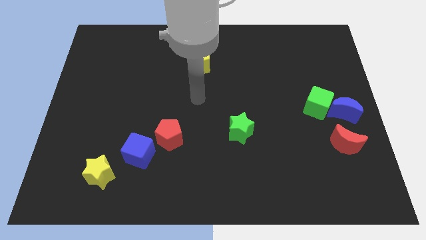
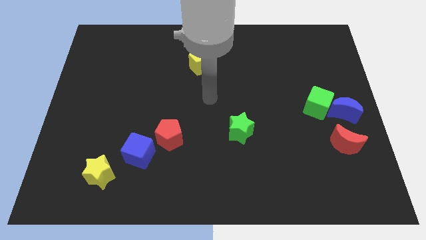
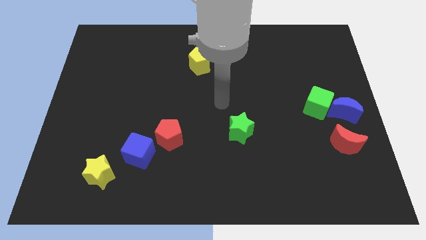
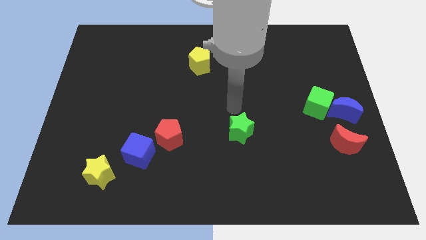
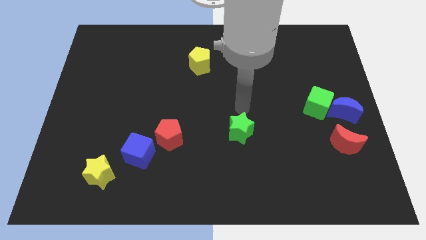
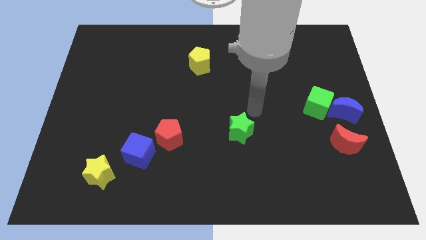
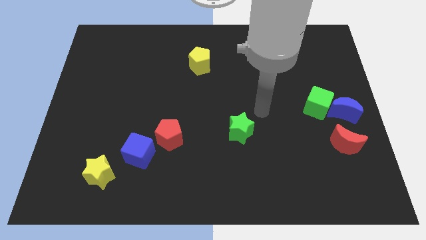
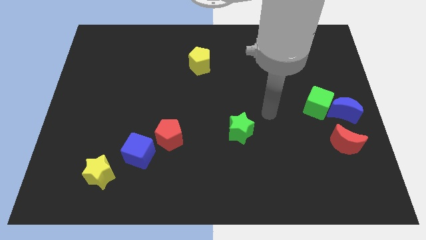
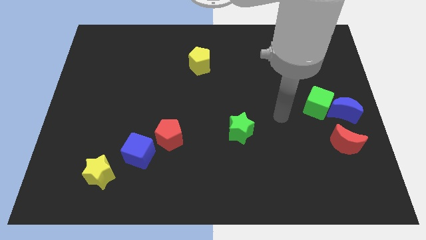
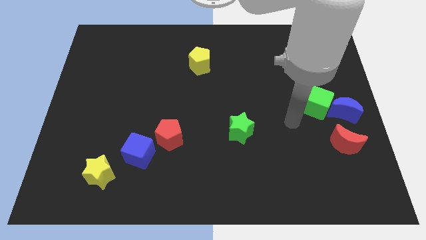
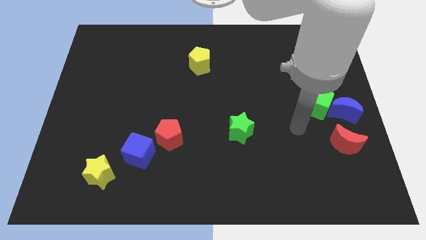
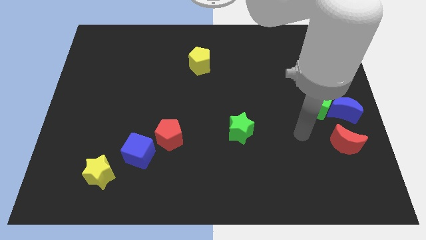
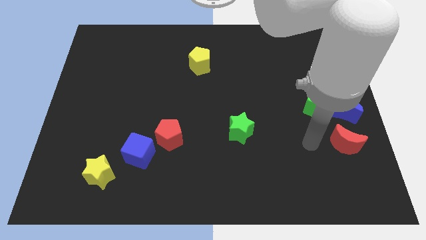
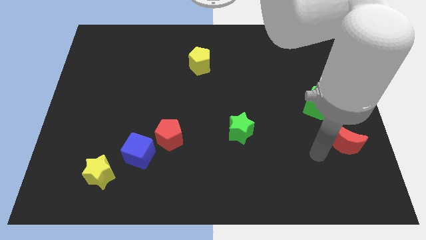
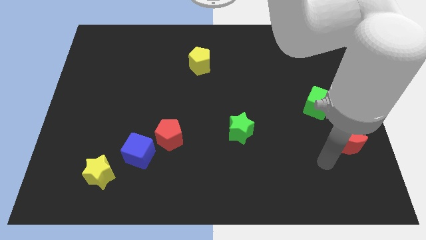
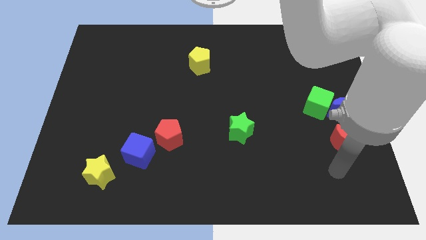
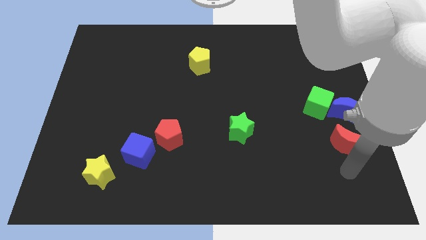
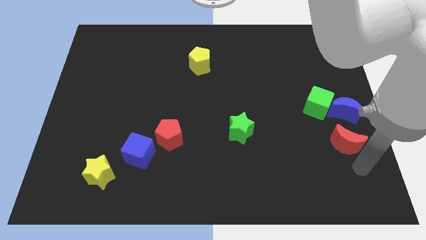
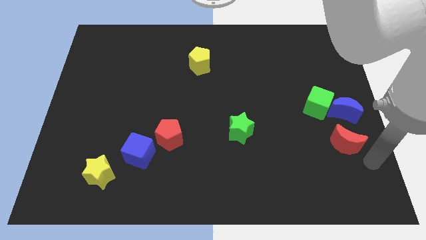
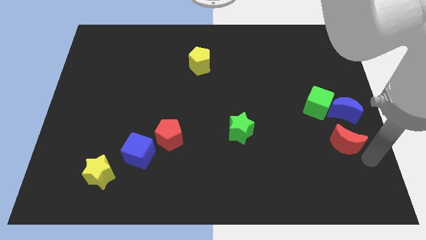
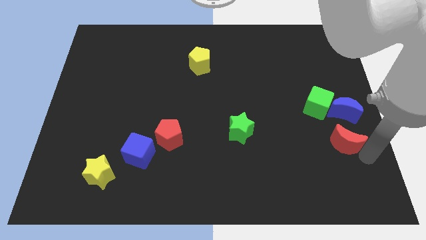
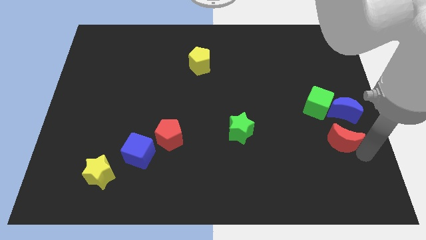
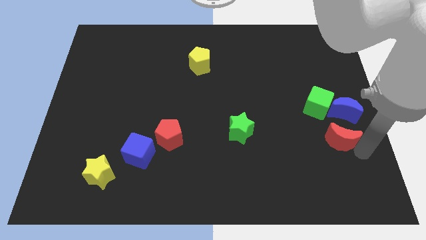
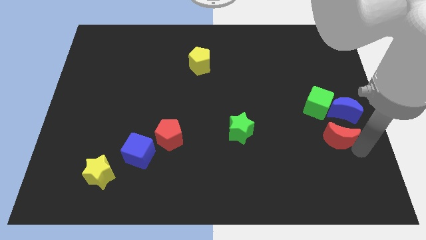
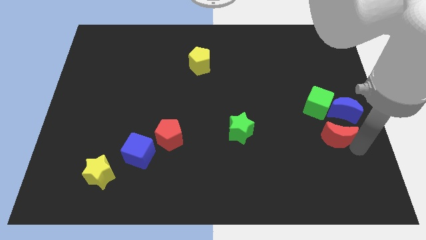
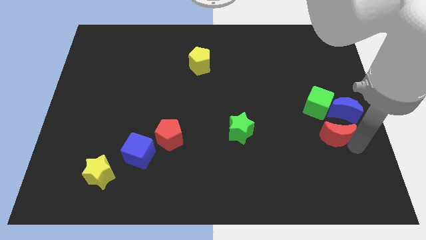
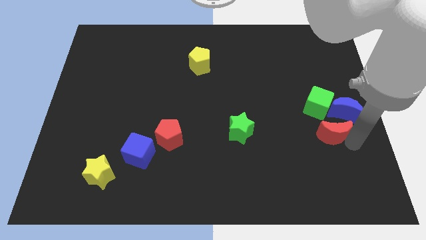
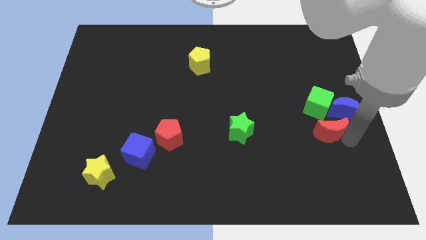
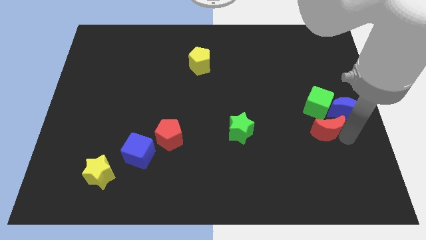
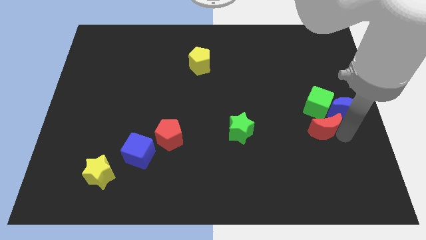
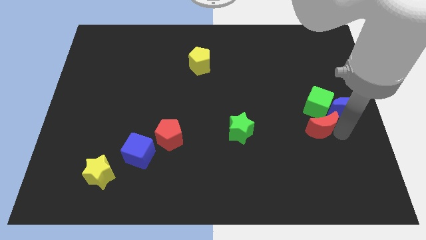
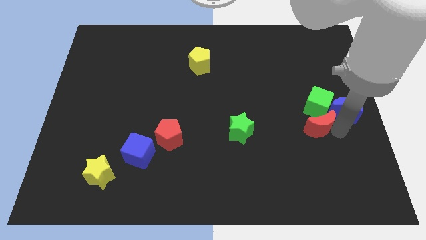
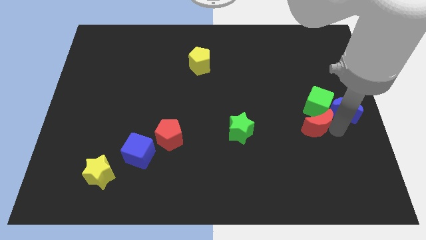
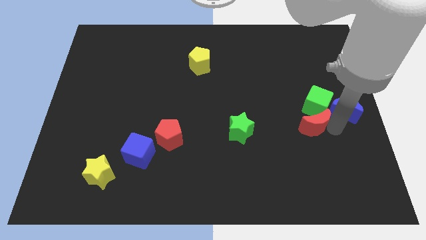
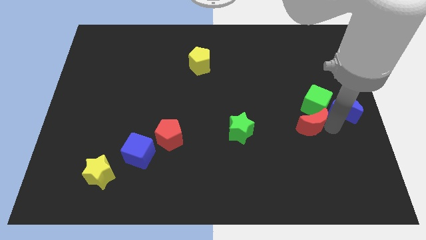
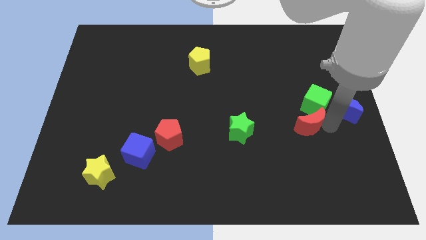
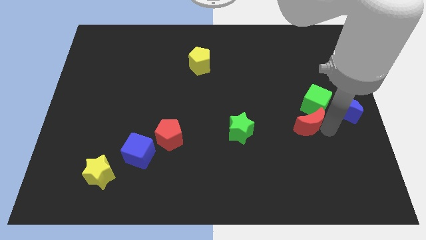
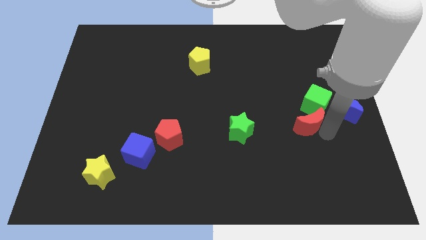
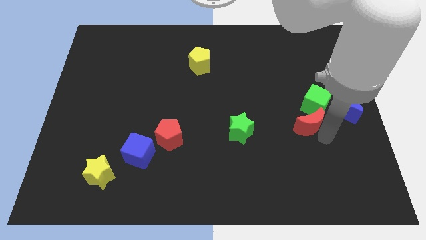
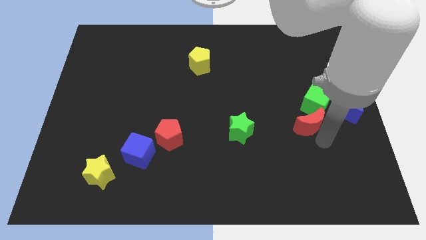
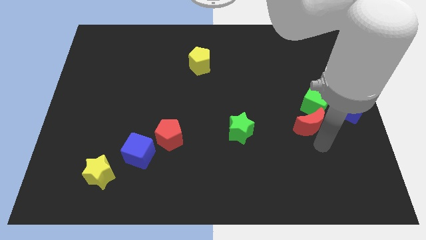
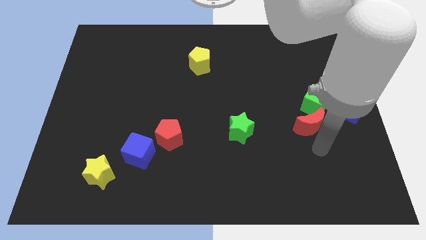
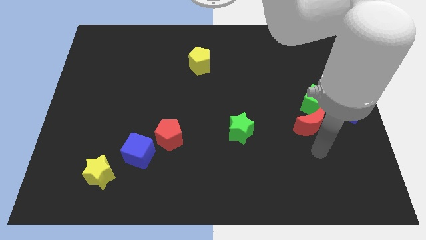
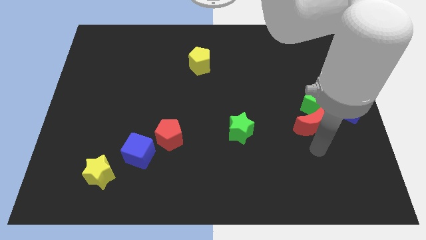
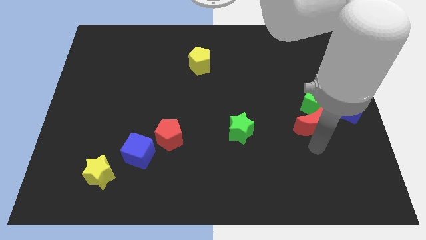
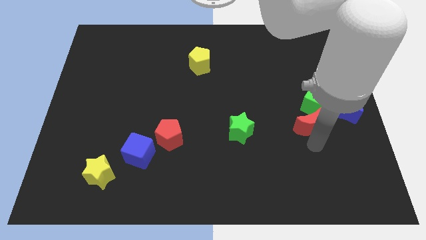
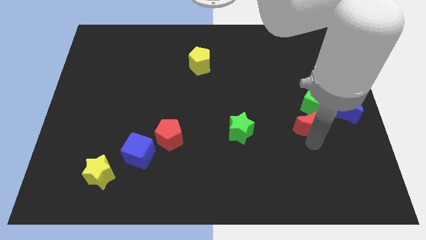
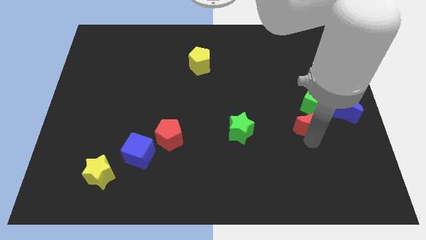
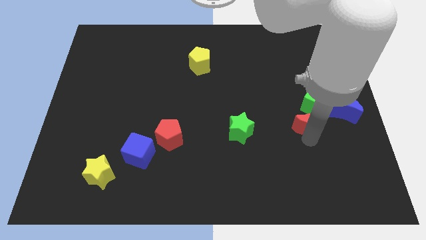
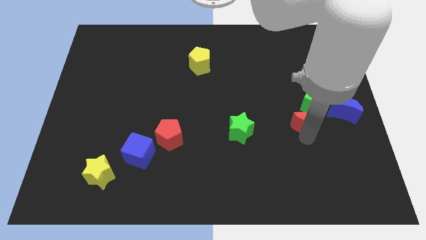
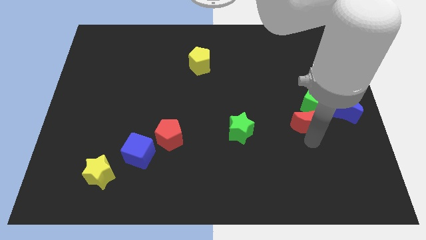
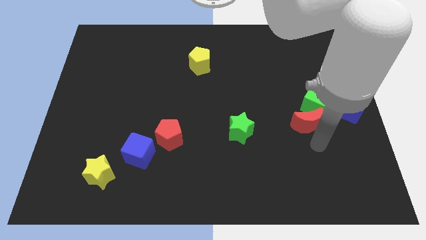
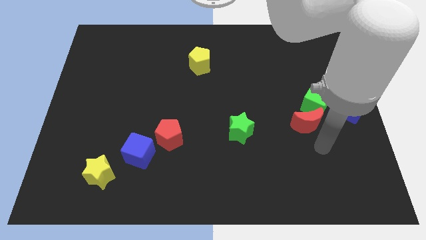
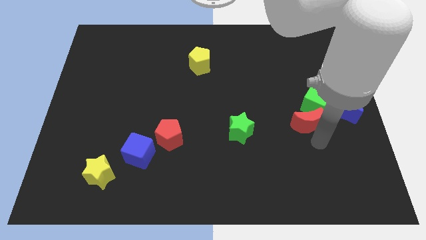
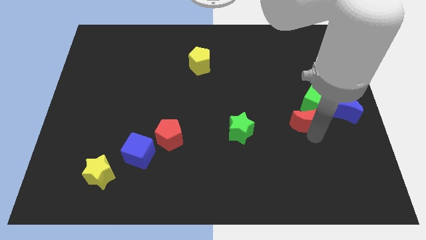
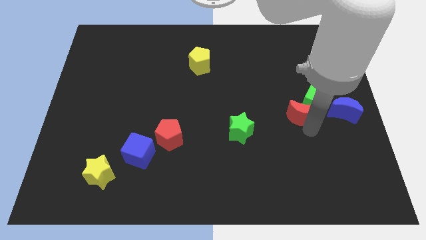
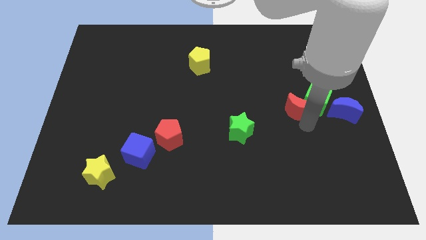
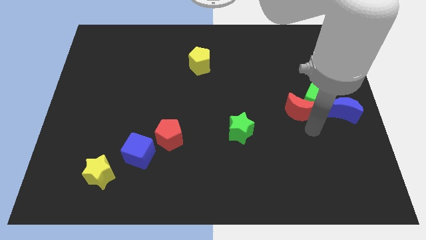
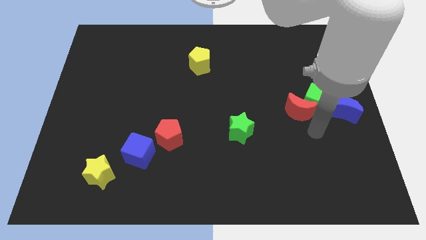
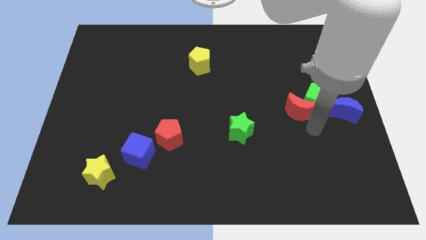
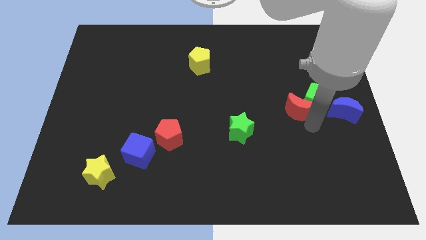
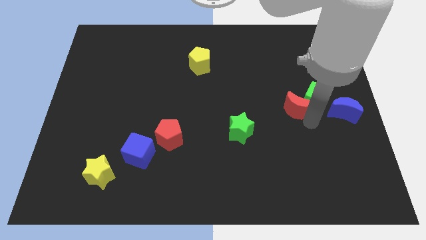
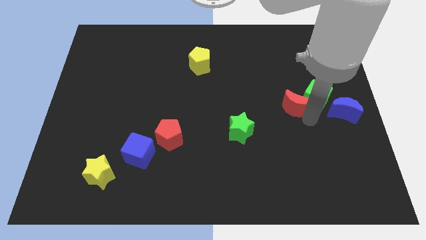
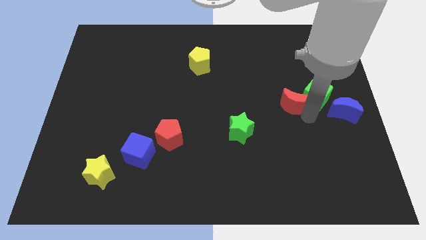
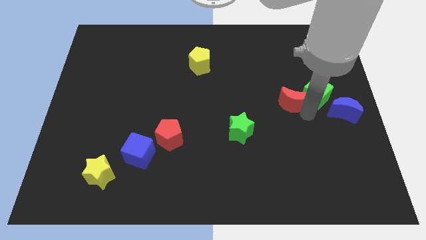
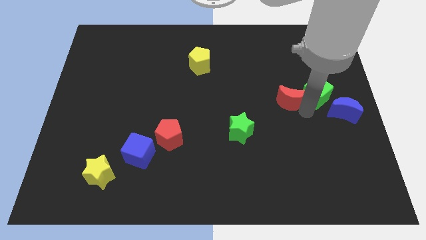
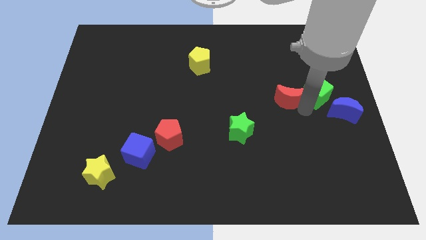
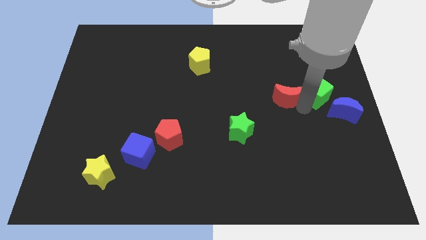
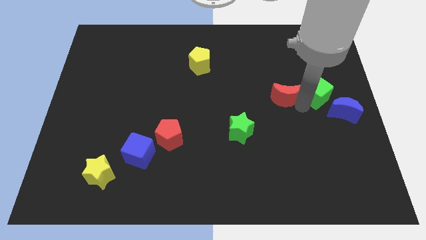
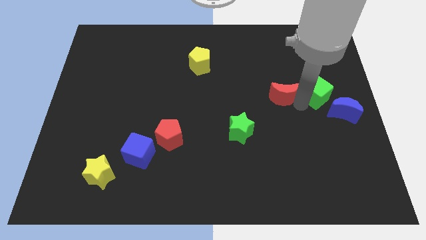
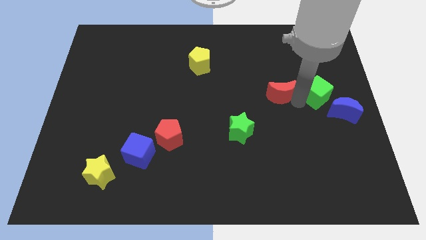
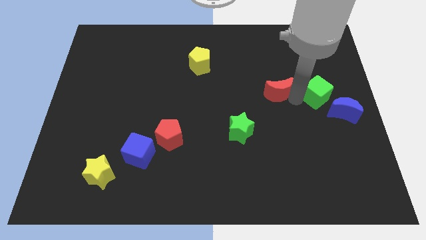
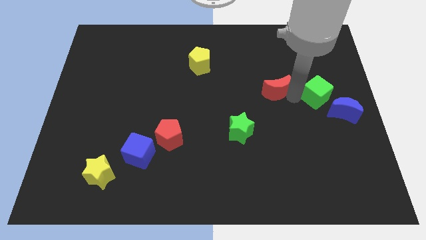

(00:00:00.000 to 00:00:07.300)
push the red moon upwards and left diagonally

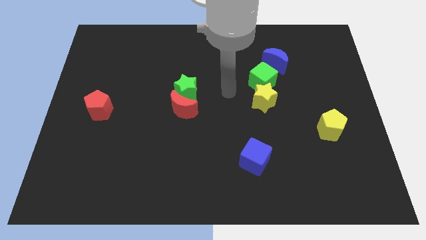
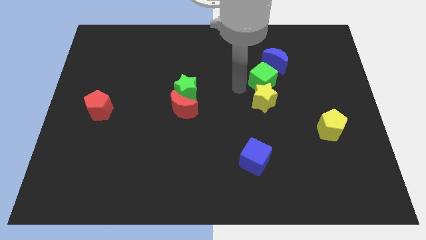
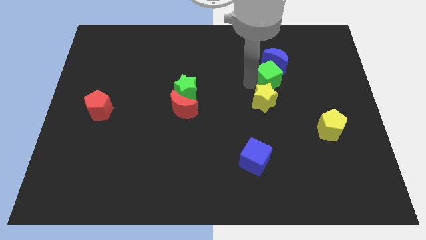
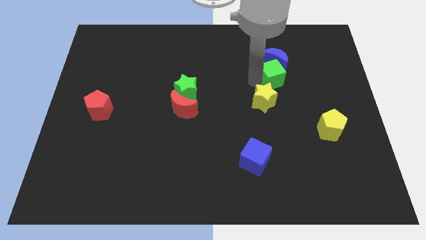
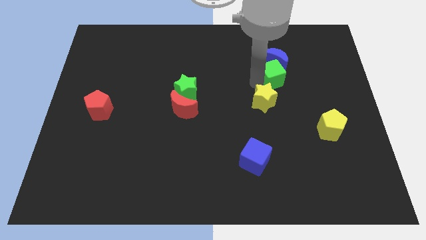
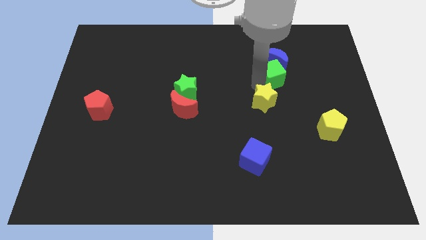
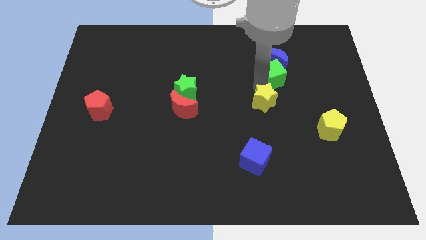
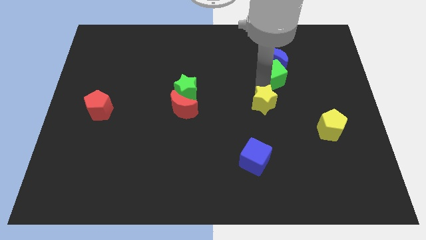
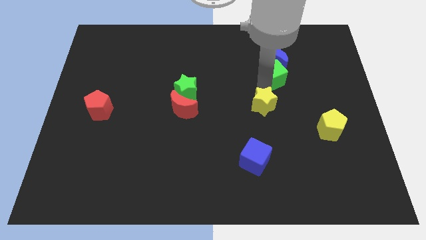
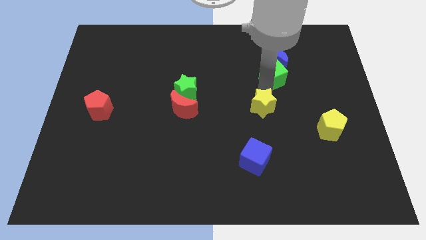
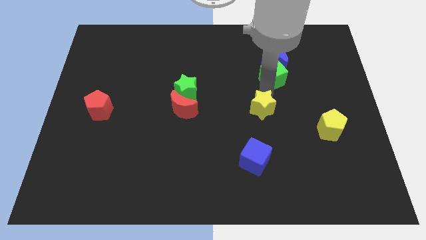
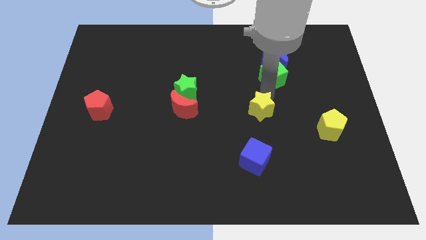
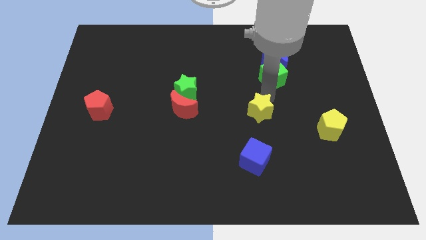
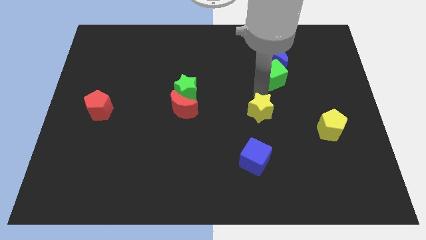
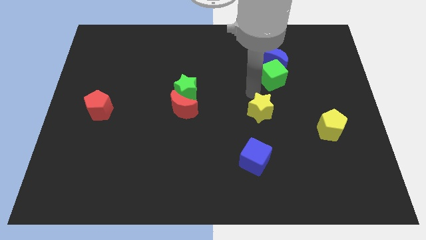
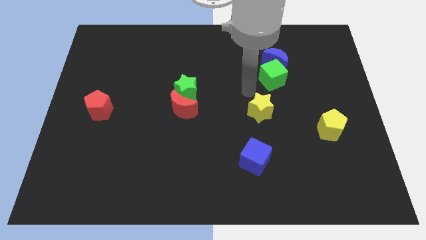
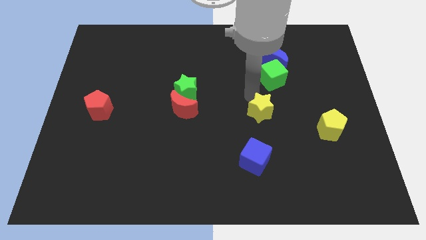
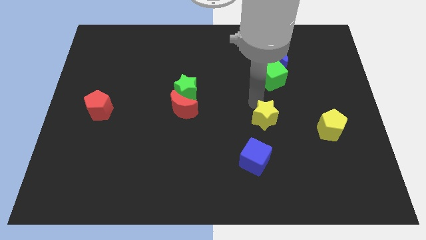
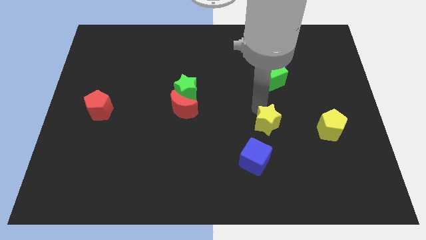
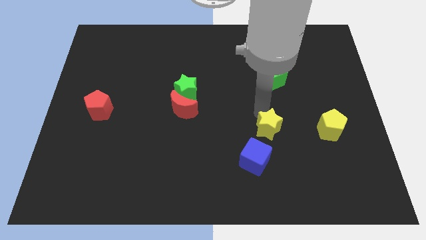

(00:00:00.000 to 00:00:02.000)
push the yellow star down a little
